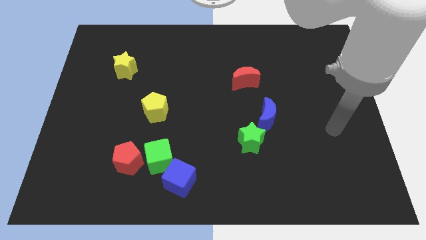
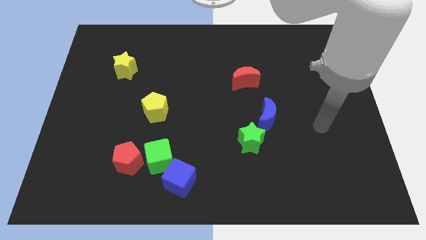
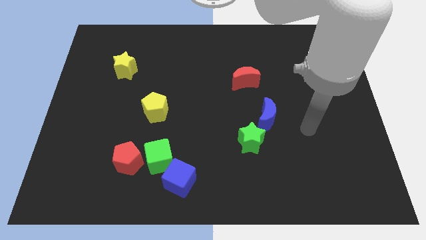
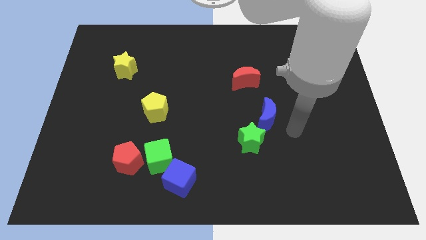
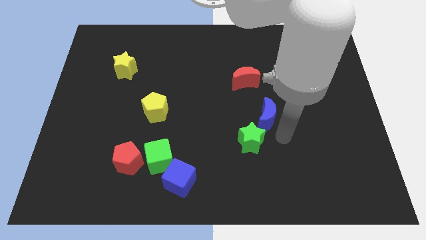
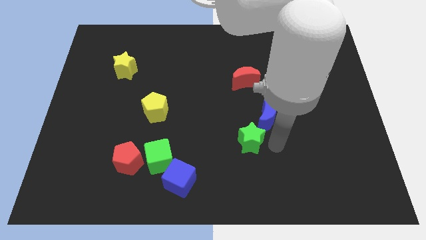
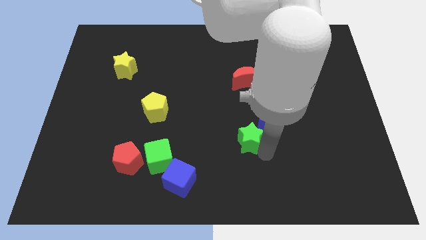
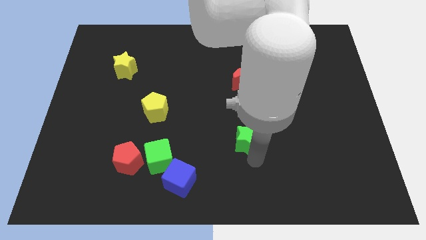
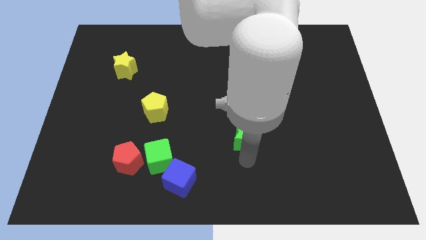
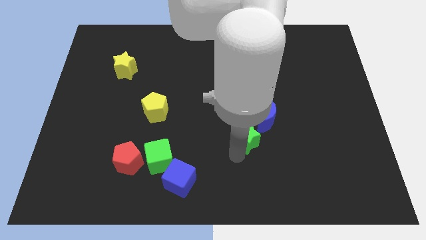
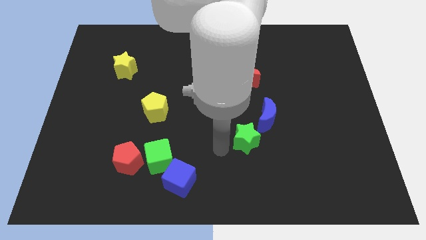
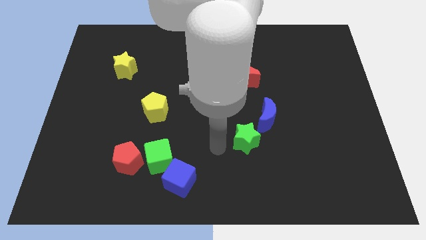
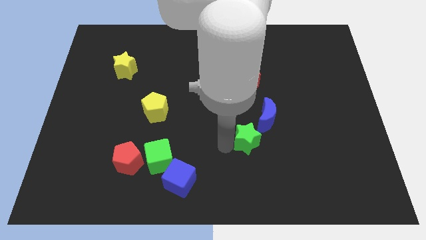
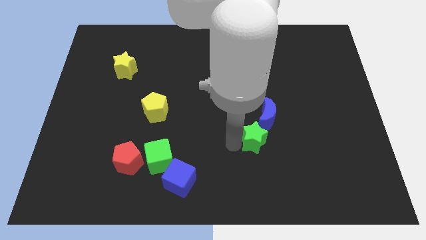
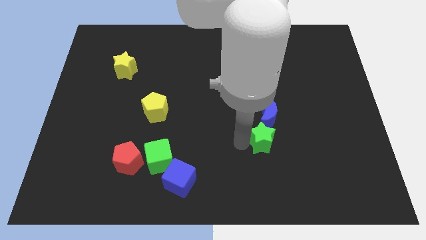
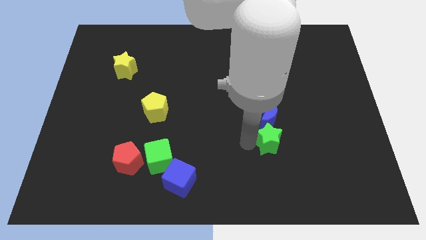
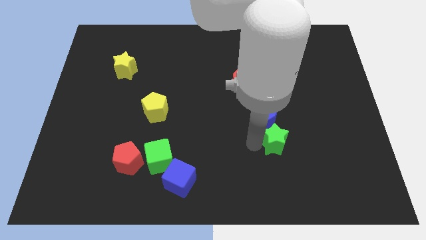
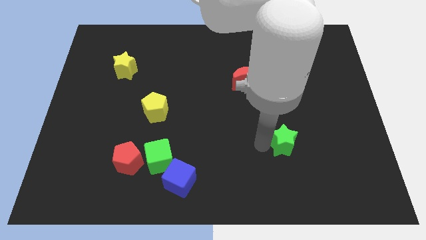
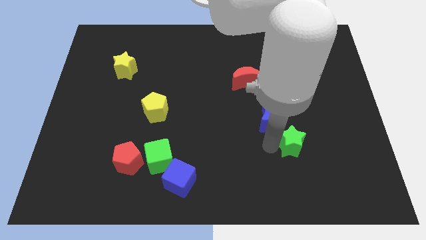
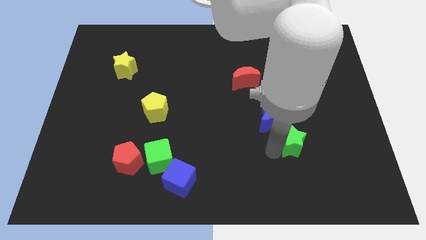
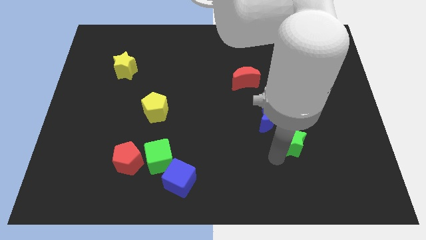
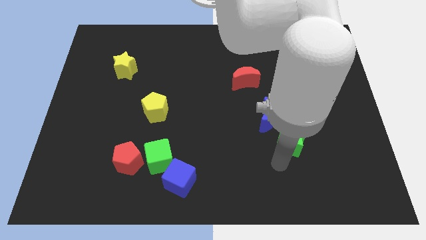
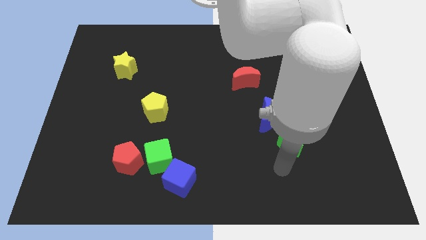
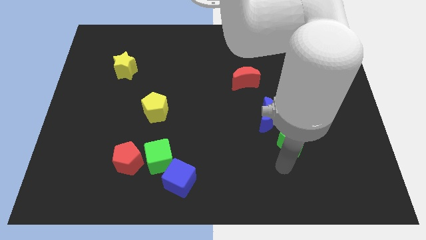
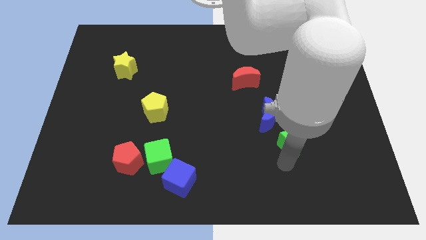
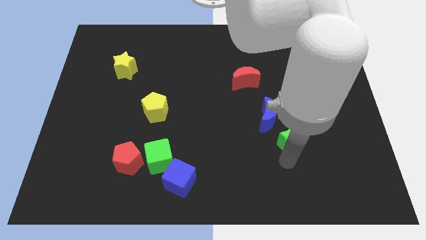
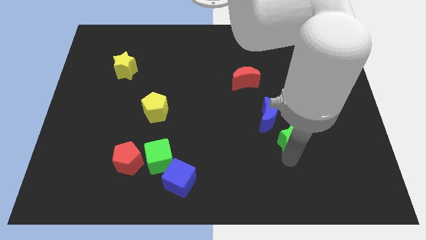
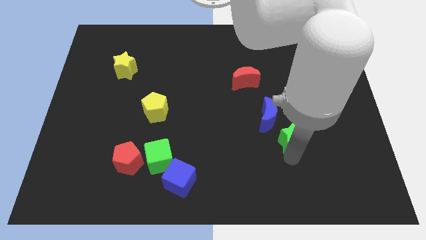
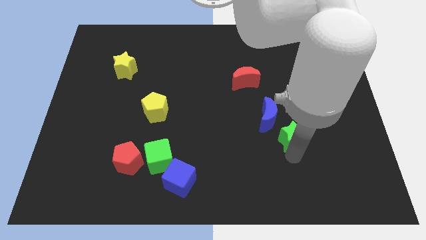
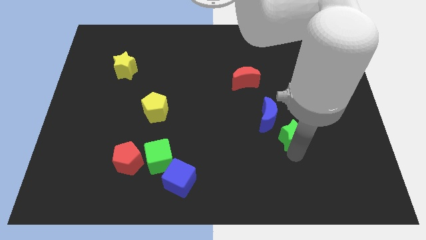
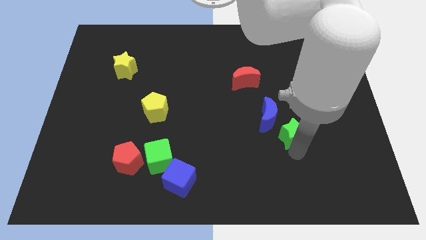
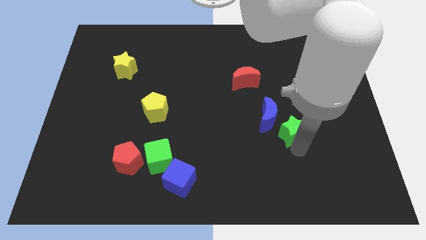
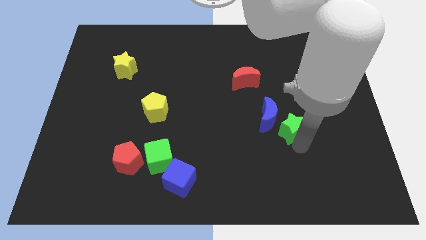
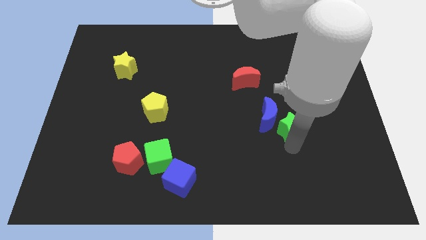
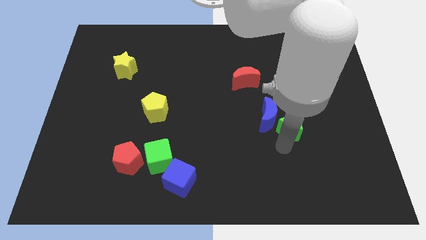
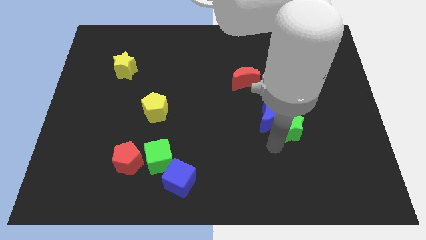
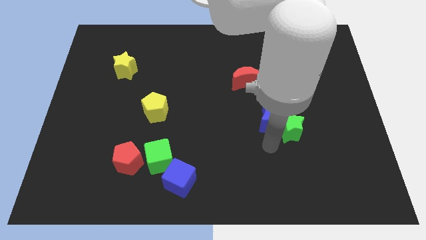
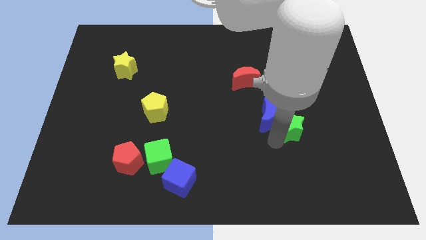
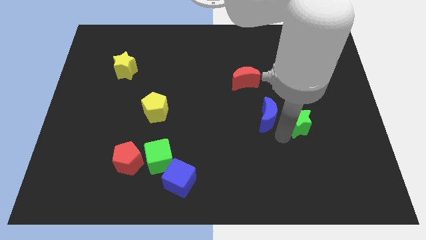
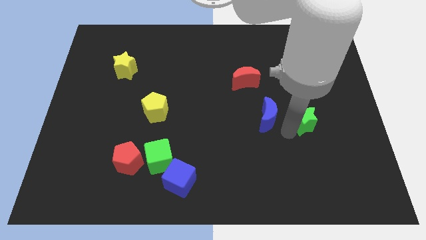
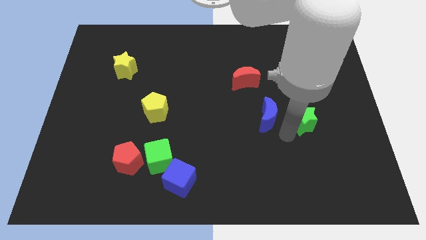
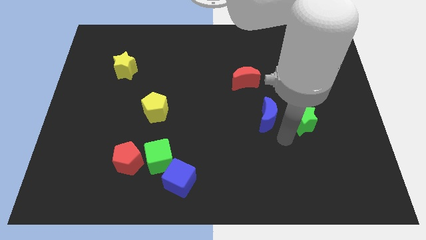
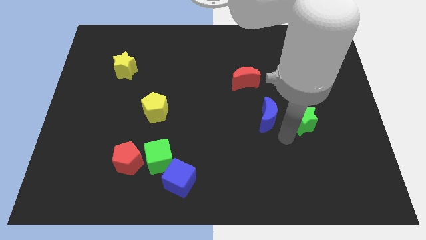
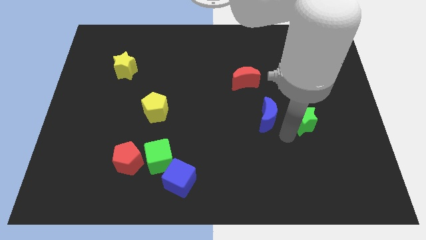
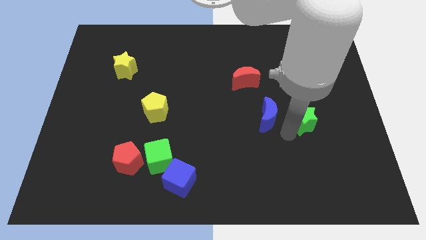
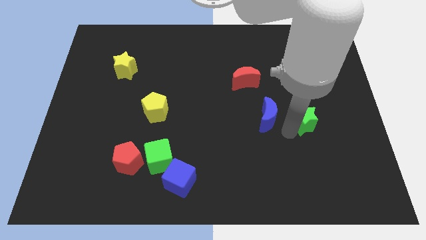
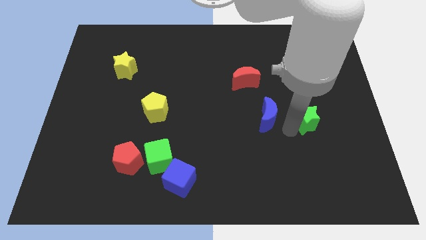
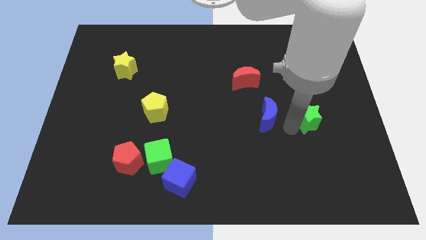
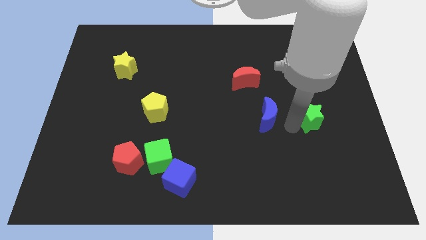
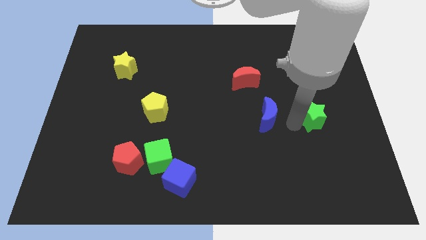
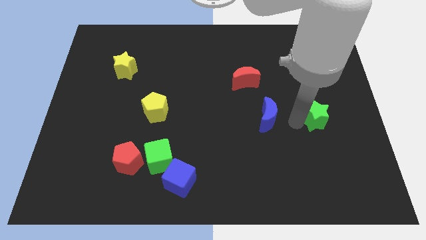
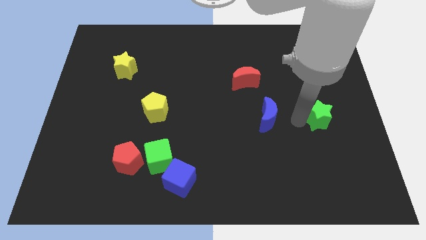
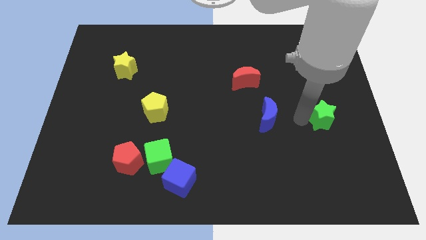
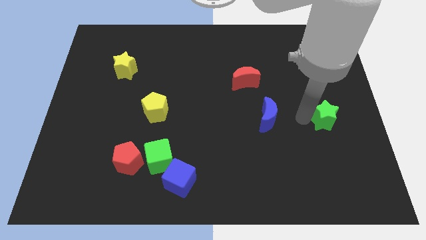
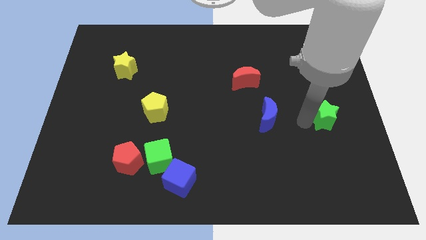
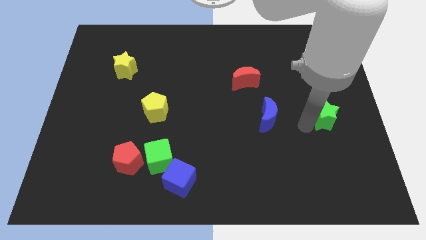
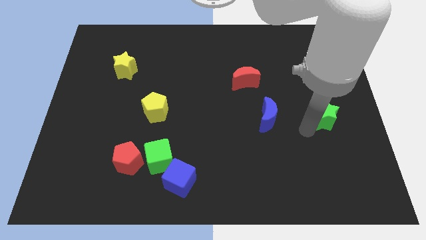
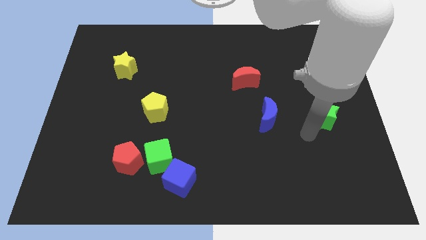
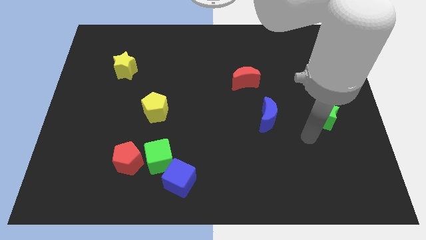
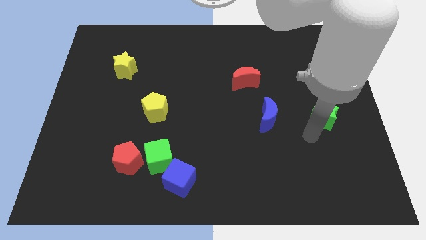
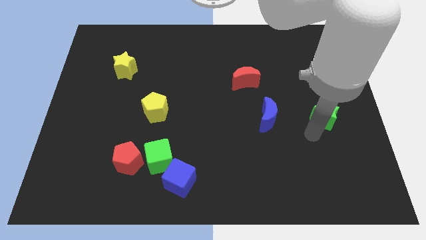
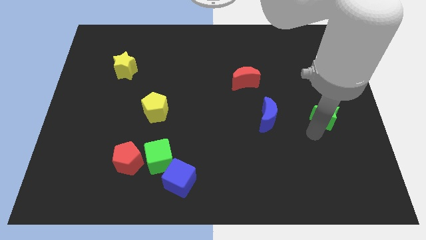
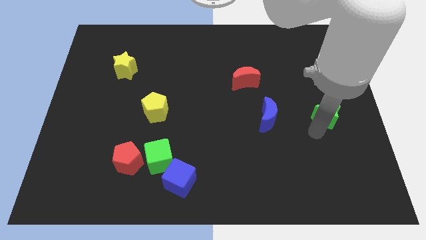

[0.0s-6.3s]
put the green star to the center right
